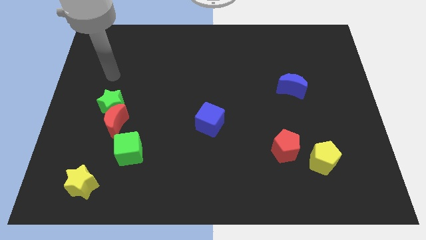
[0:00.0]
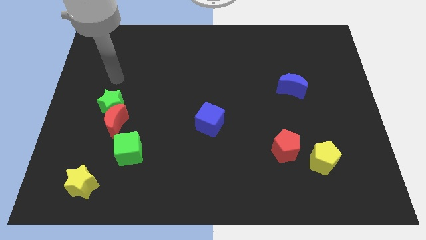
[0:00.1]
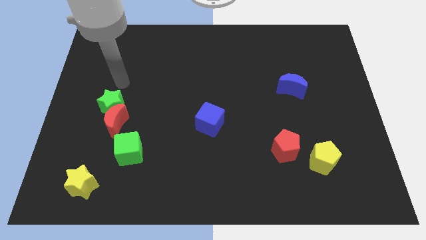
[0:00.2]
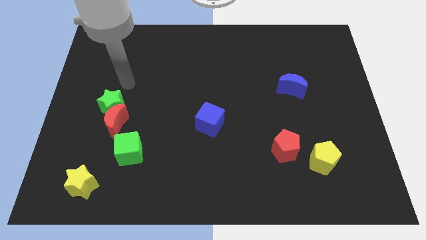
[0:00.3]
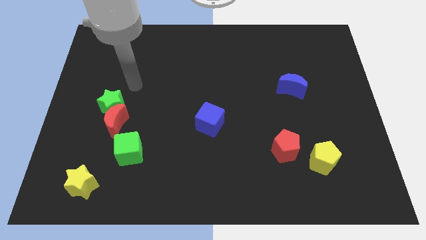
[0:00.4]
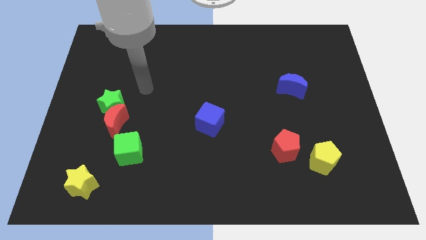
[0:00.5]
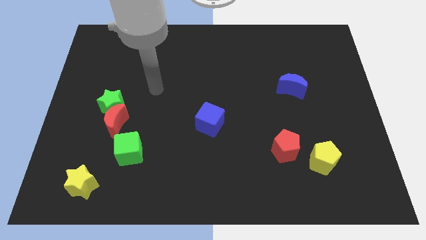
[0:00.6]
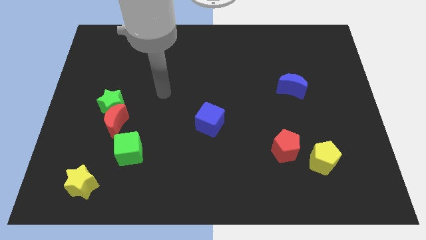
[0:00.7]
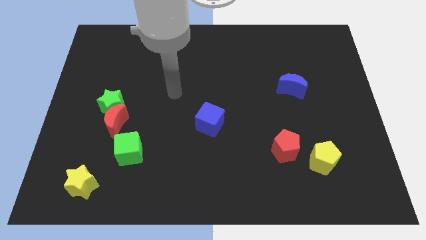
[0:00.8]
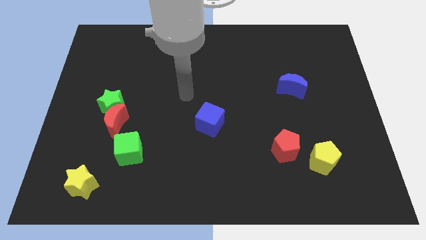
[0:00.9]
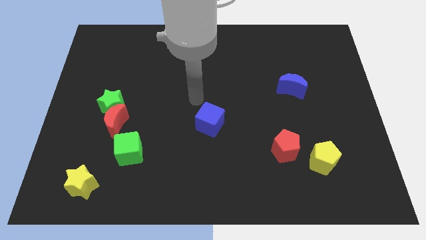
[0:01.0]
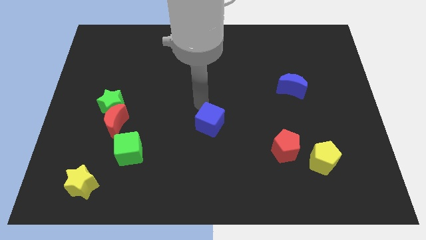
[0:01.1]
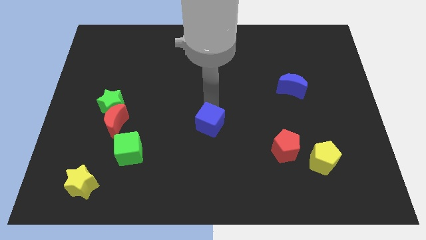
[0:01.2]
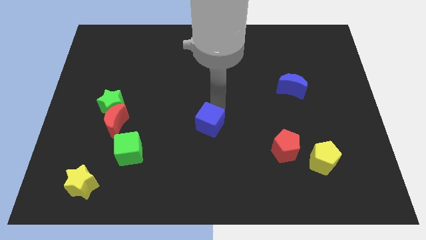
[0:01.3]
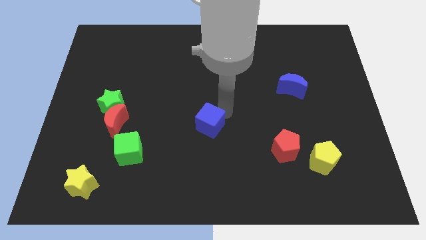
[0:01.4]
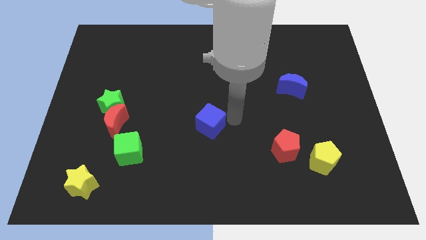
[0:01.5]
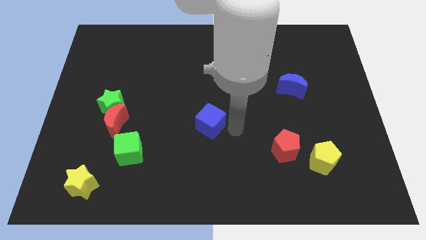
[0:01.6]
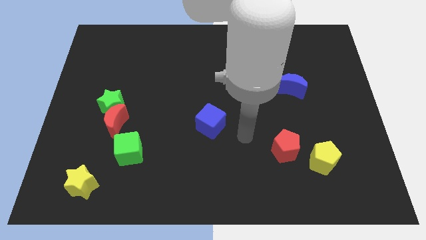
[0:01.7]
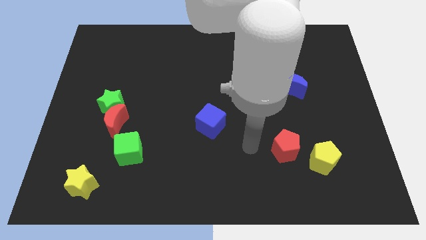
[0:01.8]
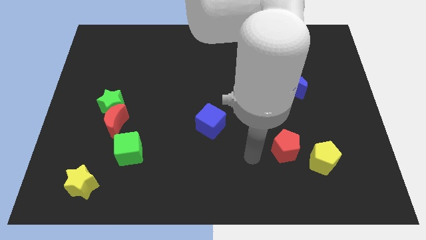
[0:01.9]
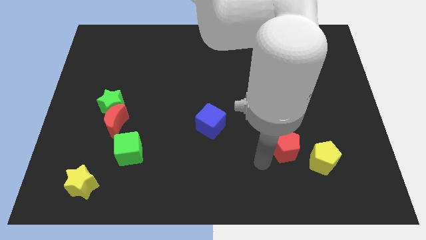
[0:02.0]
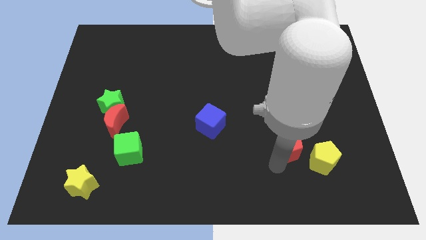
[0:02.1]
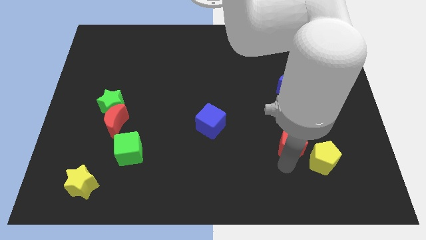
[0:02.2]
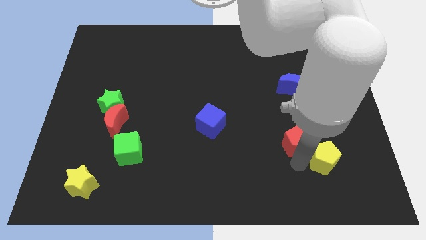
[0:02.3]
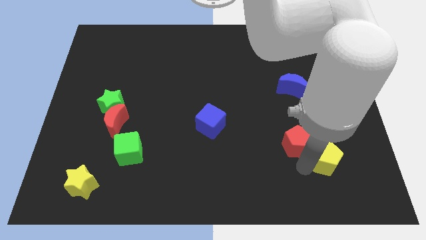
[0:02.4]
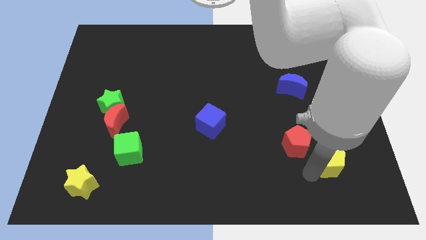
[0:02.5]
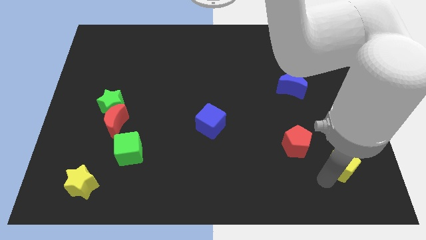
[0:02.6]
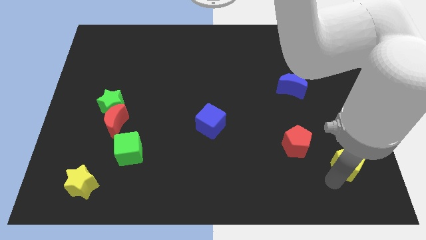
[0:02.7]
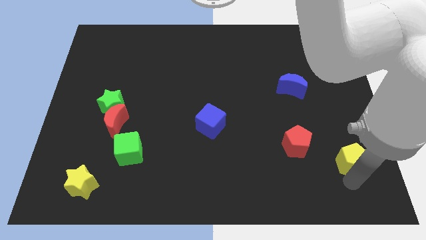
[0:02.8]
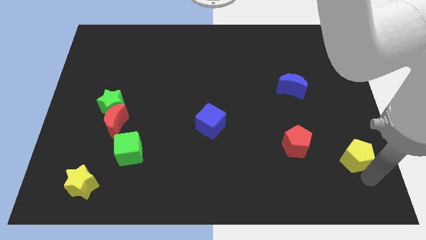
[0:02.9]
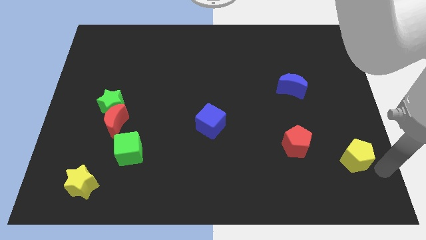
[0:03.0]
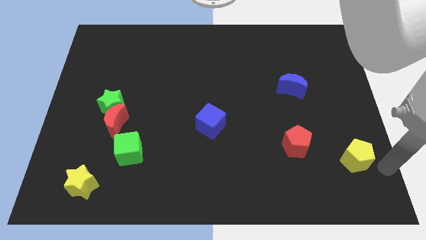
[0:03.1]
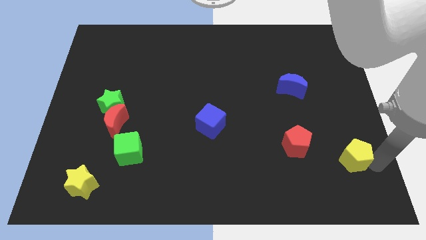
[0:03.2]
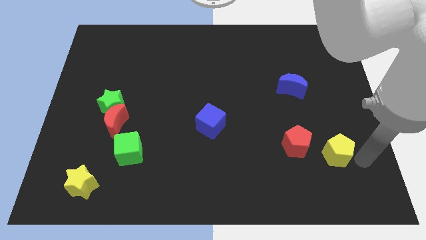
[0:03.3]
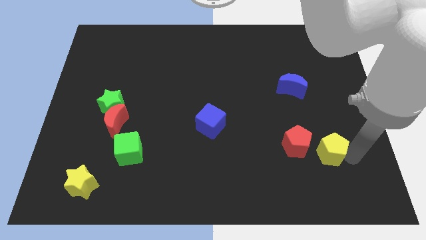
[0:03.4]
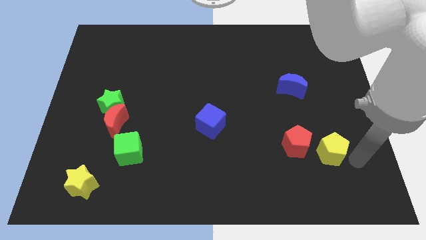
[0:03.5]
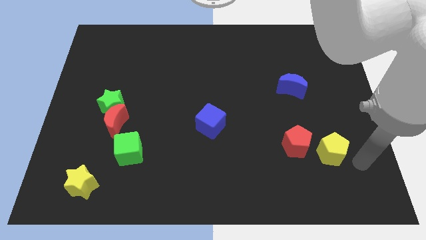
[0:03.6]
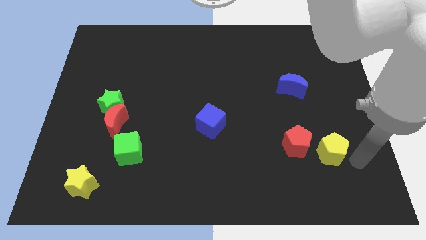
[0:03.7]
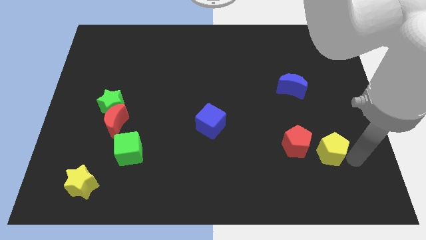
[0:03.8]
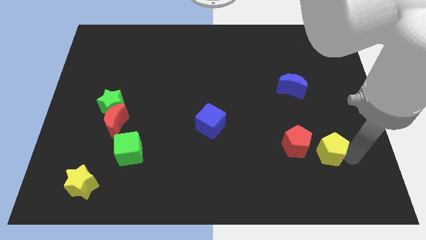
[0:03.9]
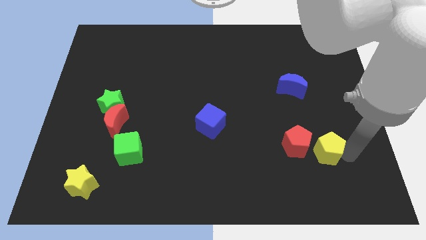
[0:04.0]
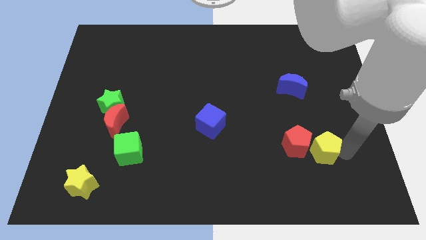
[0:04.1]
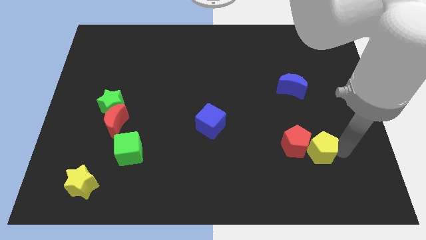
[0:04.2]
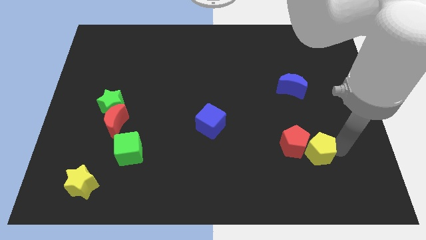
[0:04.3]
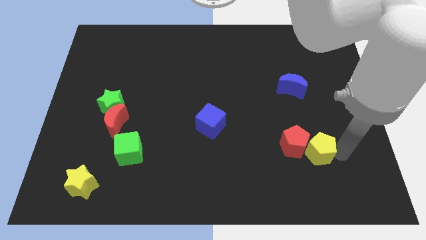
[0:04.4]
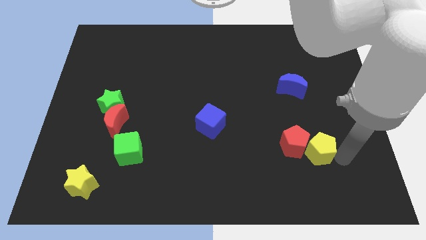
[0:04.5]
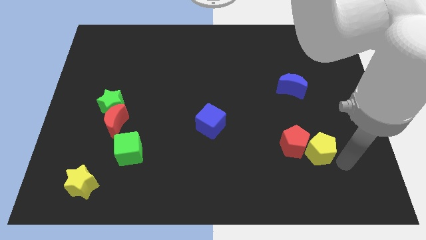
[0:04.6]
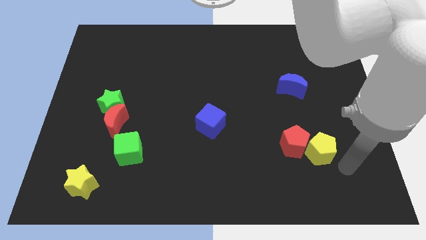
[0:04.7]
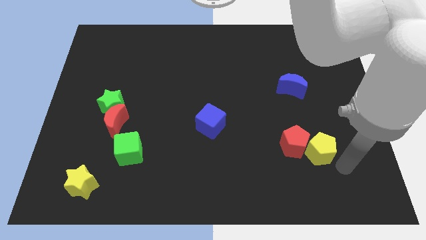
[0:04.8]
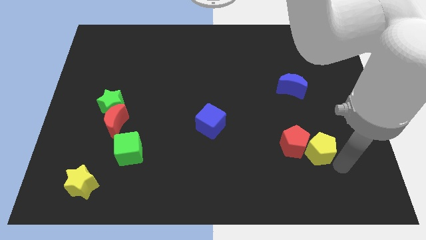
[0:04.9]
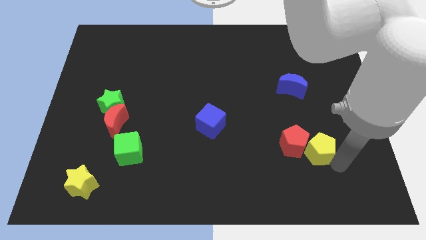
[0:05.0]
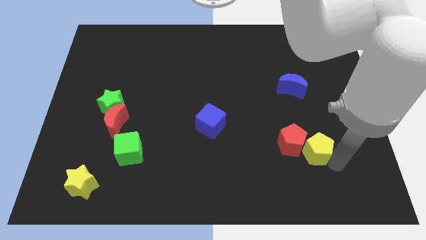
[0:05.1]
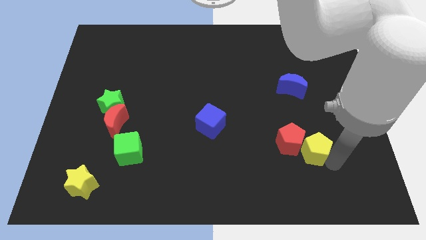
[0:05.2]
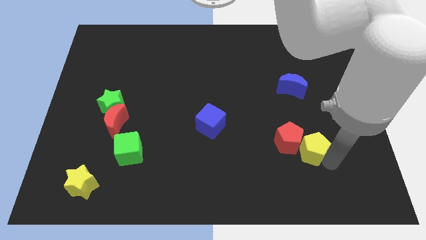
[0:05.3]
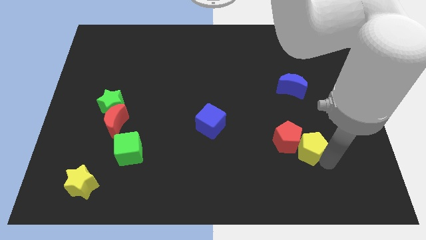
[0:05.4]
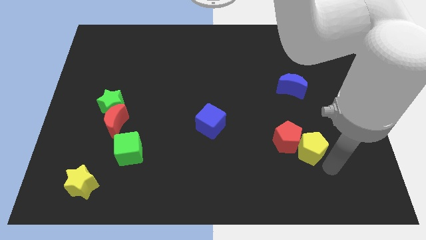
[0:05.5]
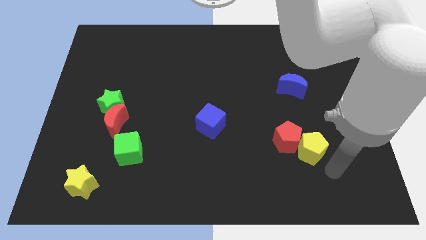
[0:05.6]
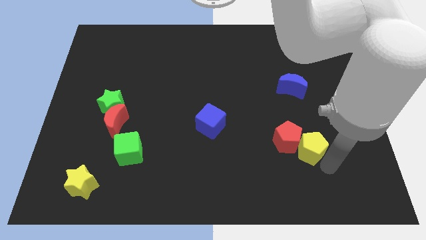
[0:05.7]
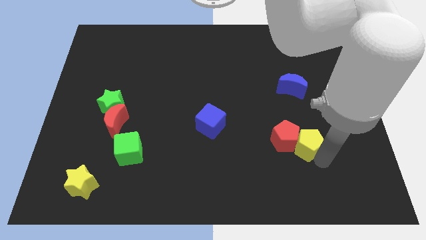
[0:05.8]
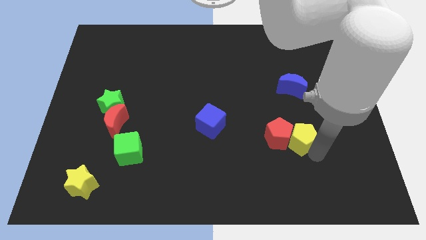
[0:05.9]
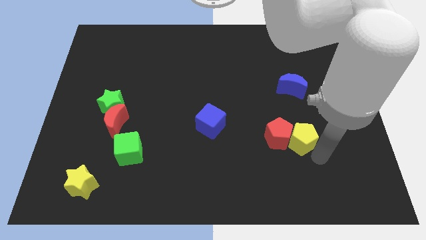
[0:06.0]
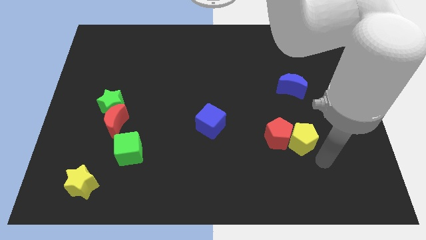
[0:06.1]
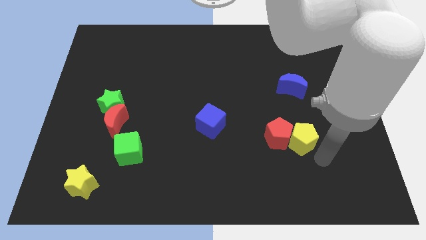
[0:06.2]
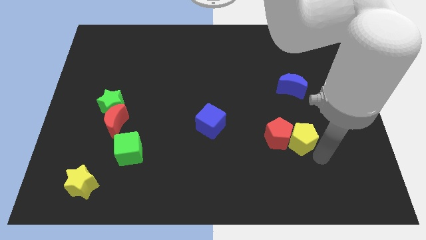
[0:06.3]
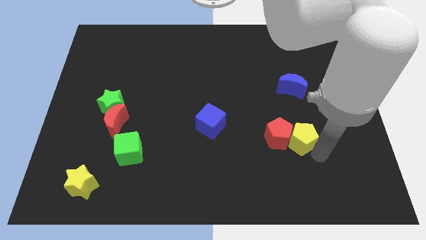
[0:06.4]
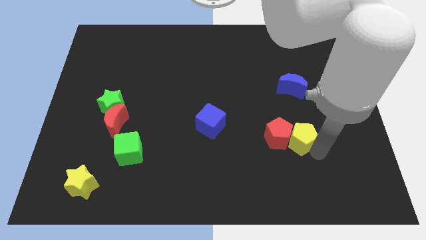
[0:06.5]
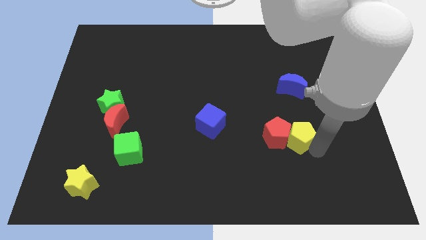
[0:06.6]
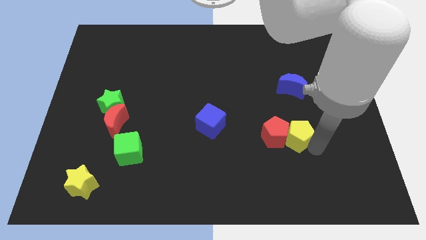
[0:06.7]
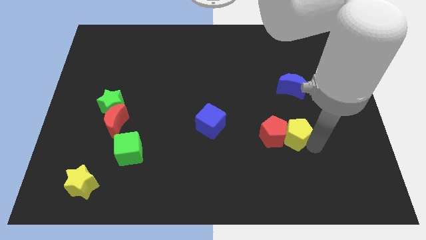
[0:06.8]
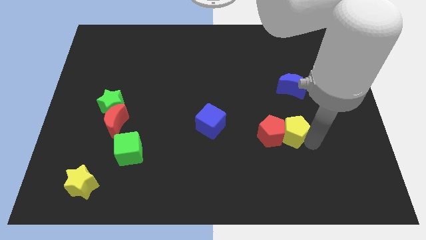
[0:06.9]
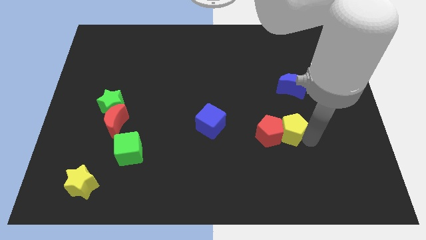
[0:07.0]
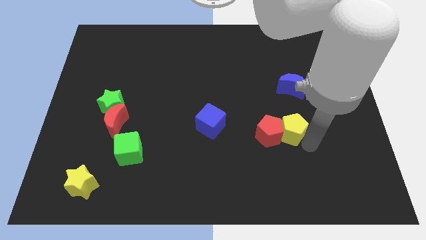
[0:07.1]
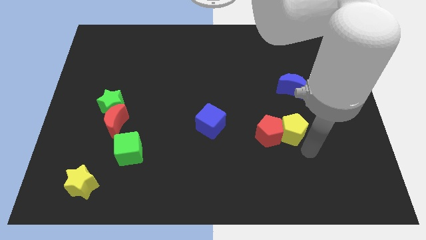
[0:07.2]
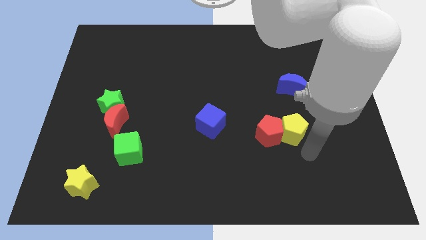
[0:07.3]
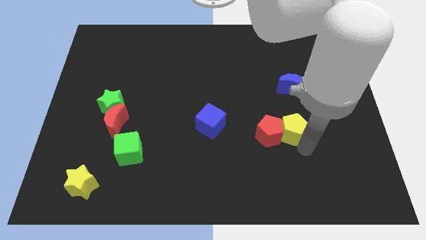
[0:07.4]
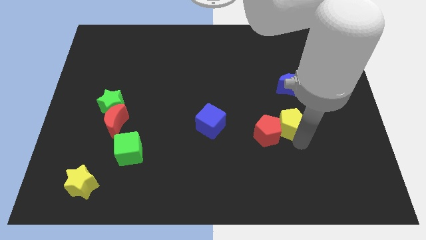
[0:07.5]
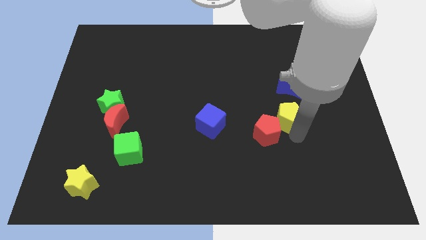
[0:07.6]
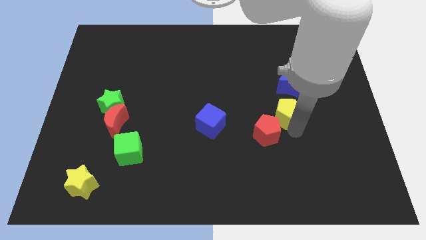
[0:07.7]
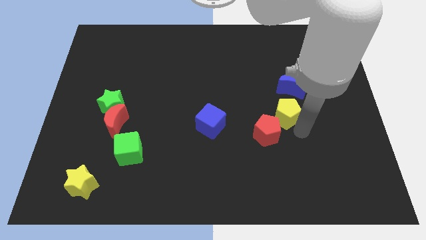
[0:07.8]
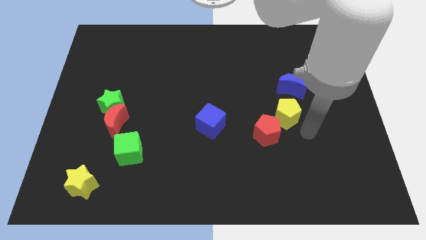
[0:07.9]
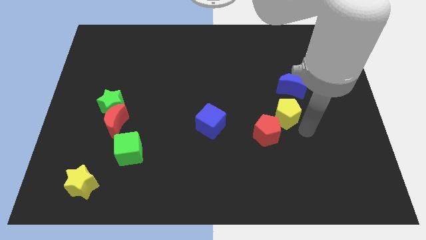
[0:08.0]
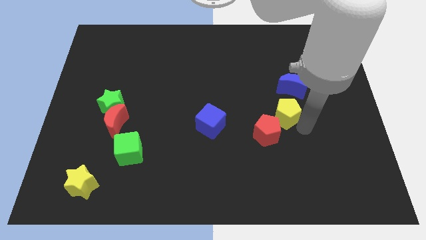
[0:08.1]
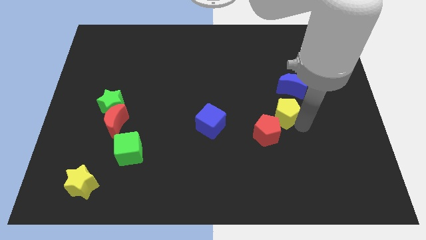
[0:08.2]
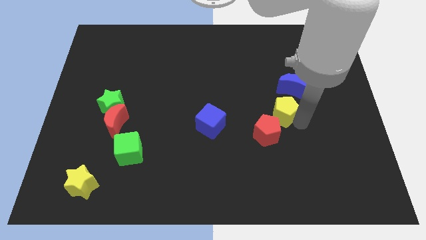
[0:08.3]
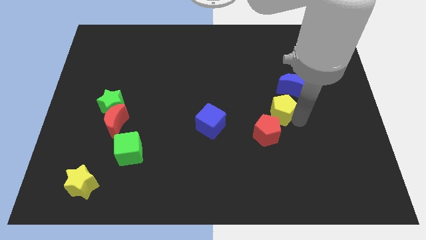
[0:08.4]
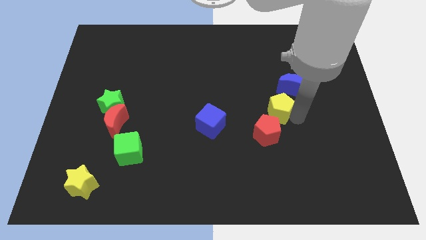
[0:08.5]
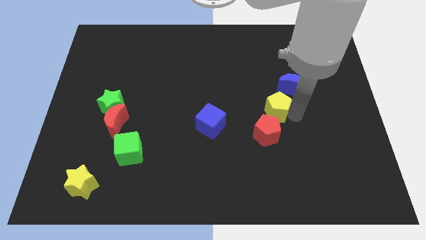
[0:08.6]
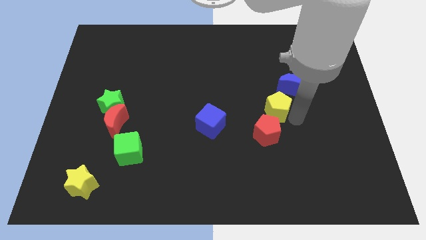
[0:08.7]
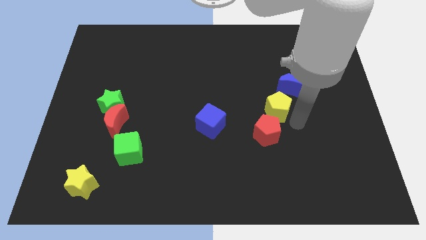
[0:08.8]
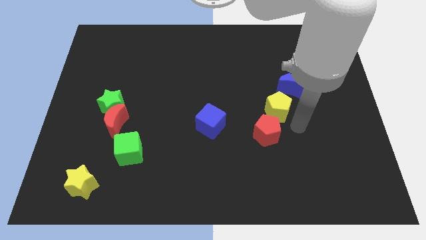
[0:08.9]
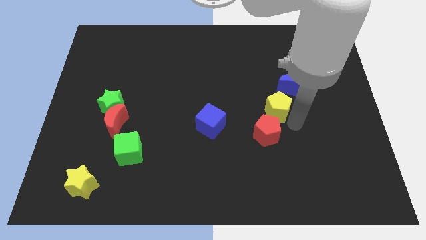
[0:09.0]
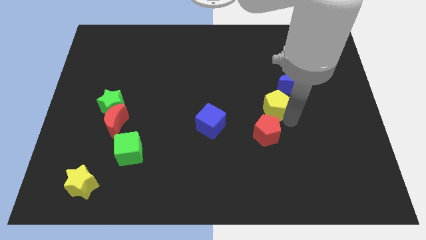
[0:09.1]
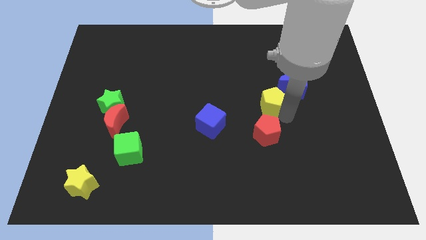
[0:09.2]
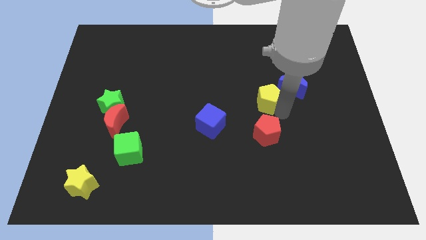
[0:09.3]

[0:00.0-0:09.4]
move the yellow pentagon to the left side of the blue moon
